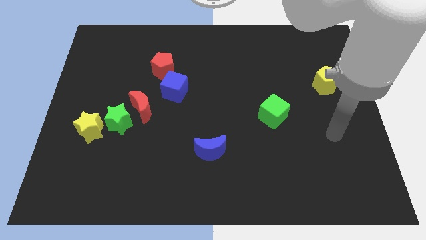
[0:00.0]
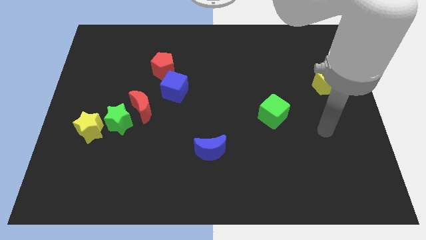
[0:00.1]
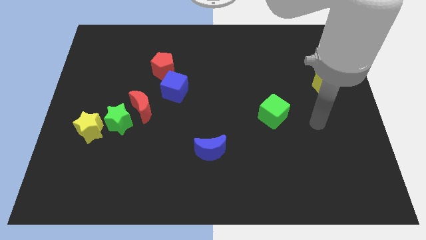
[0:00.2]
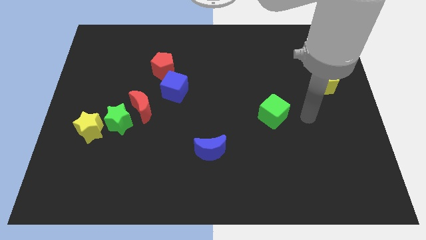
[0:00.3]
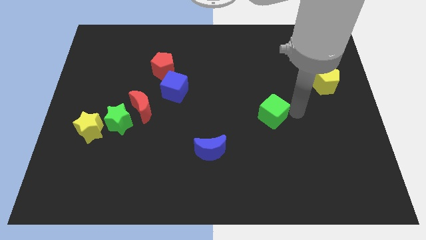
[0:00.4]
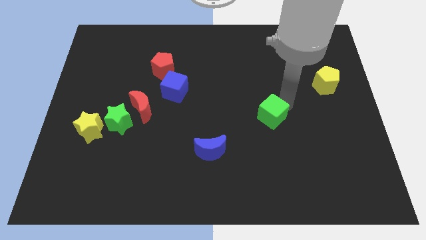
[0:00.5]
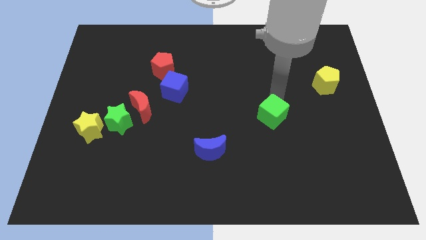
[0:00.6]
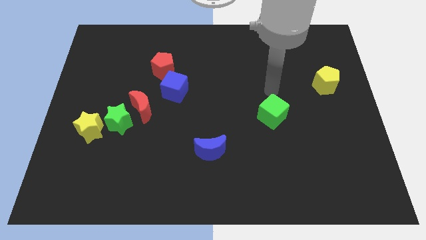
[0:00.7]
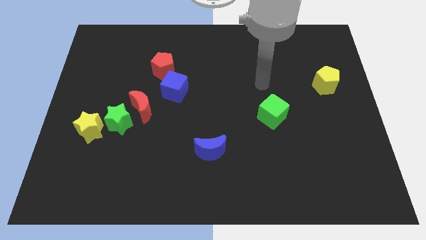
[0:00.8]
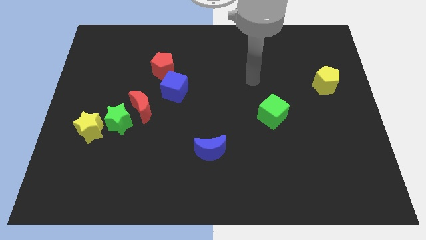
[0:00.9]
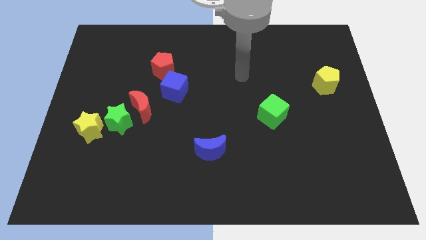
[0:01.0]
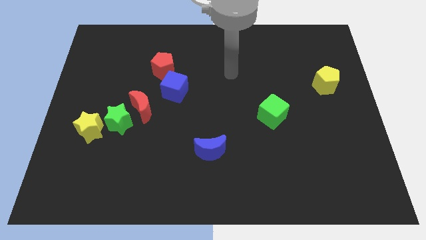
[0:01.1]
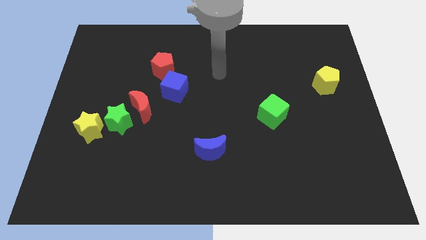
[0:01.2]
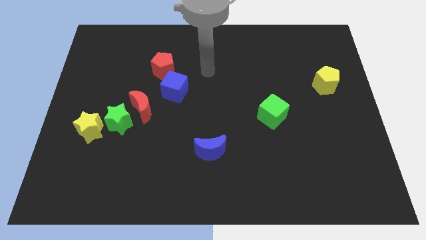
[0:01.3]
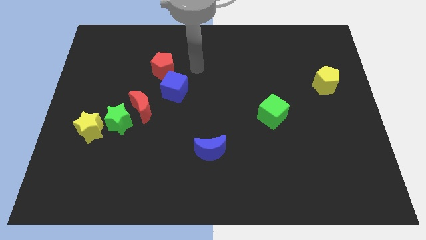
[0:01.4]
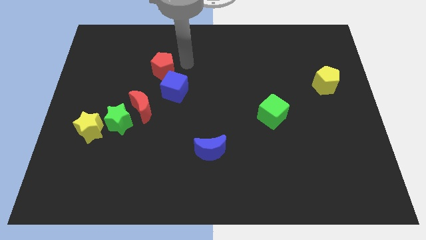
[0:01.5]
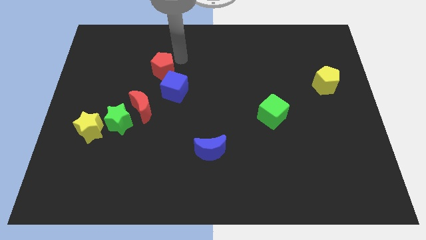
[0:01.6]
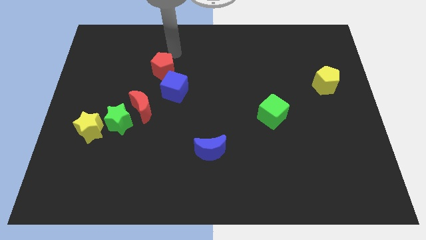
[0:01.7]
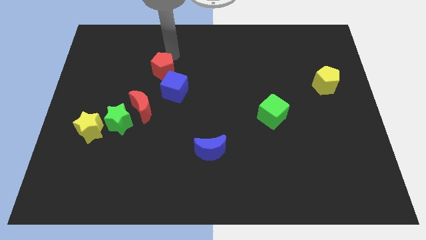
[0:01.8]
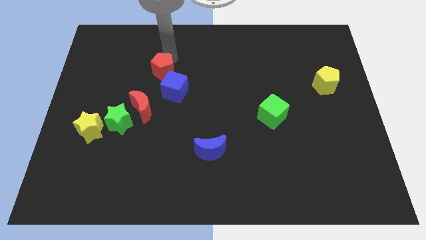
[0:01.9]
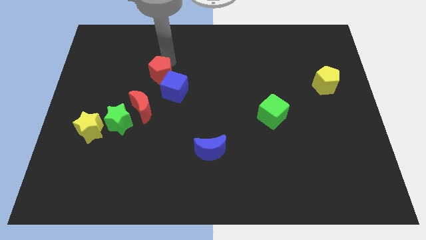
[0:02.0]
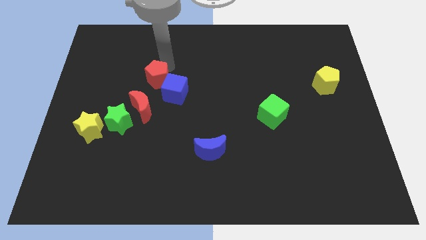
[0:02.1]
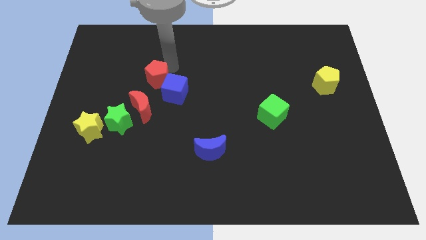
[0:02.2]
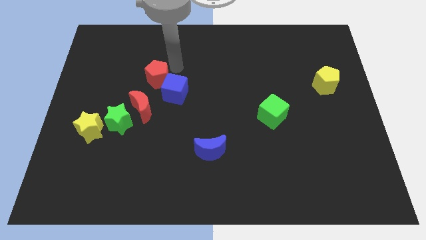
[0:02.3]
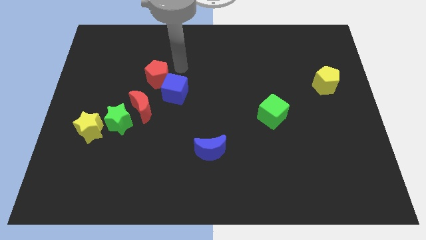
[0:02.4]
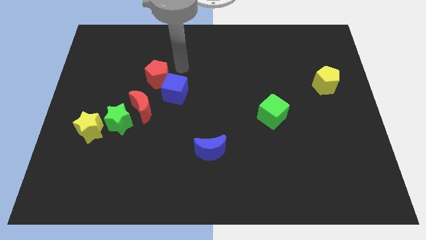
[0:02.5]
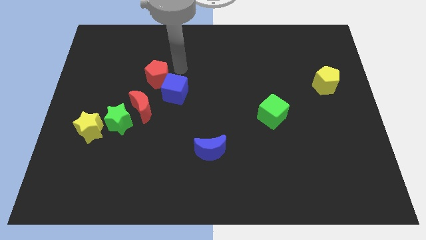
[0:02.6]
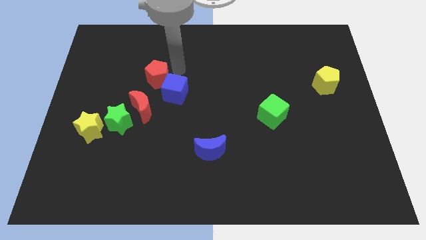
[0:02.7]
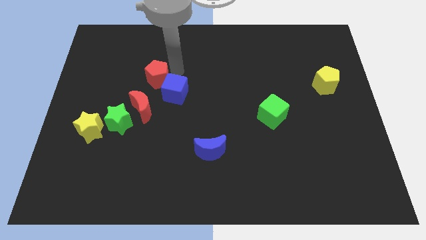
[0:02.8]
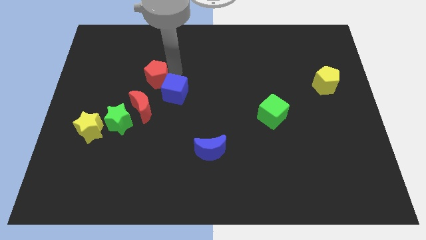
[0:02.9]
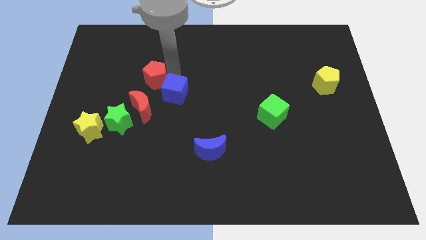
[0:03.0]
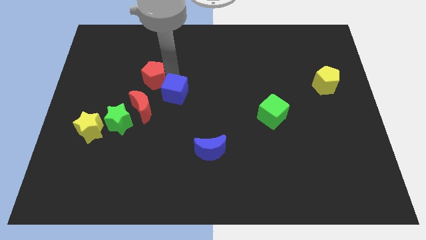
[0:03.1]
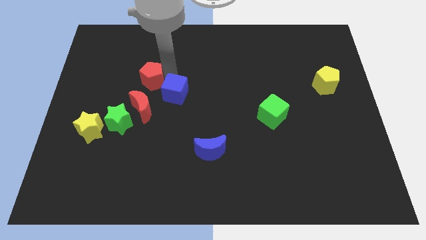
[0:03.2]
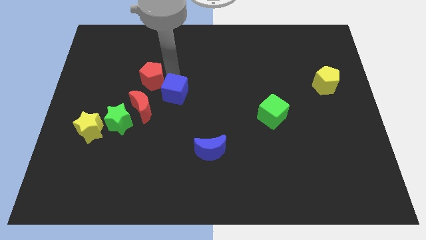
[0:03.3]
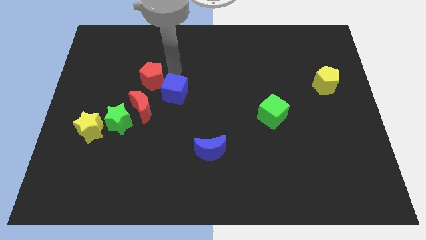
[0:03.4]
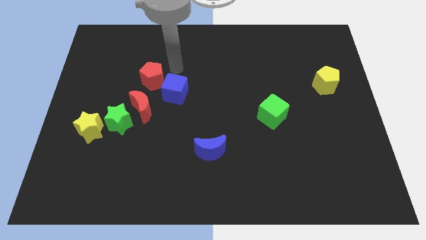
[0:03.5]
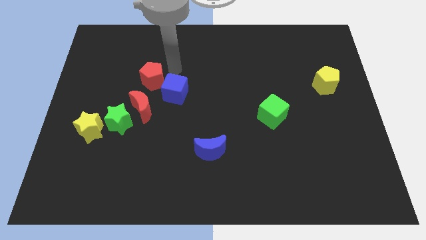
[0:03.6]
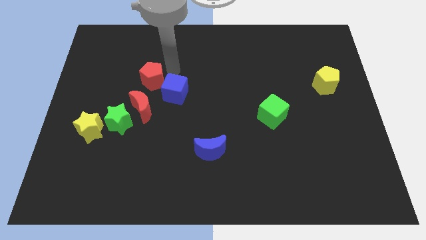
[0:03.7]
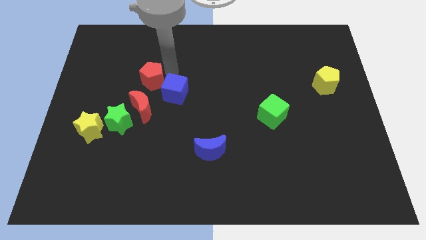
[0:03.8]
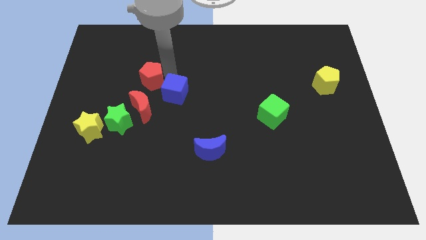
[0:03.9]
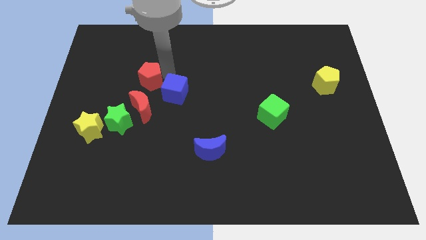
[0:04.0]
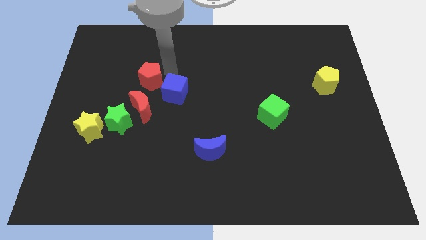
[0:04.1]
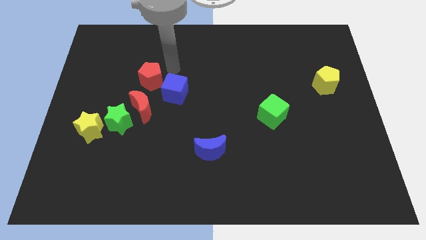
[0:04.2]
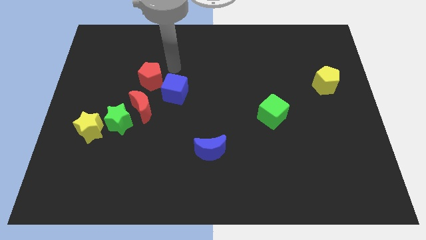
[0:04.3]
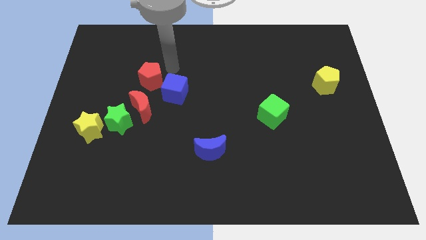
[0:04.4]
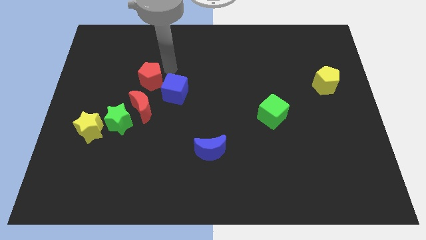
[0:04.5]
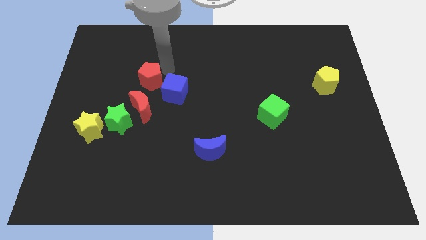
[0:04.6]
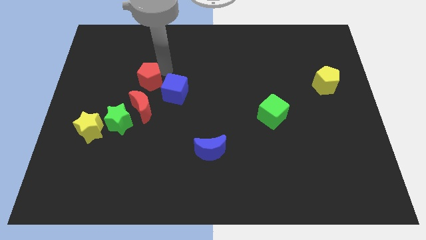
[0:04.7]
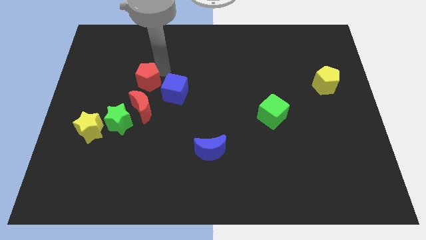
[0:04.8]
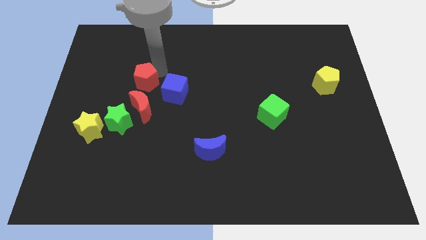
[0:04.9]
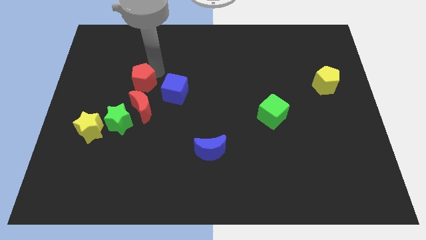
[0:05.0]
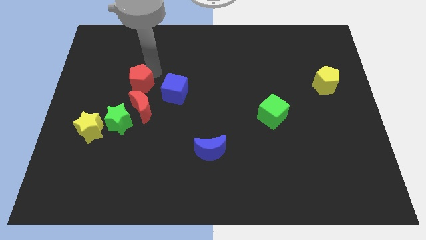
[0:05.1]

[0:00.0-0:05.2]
move the red pentagon a little down and then left

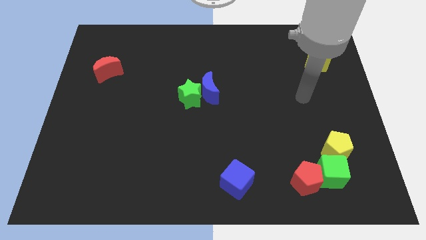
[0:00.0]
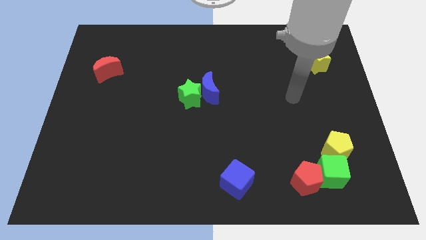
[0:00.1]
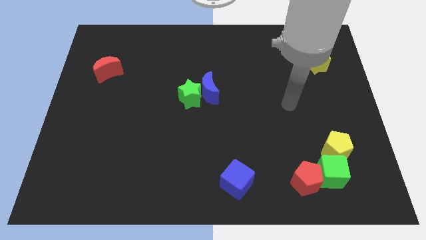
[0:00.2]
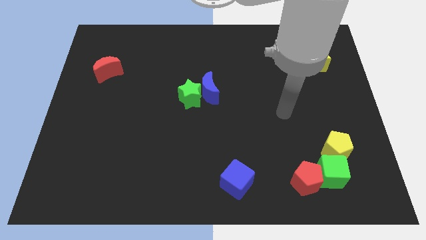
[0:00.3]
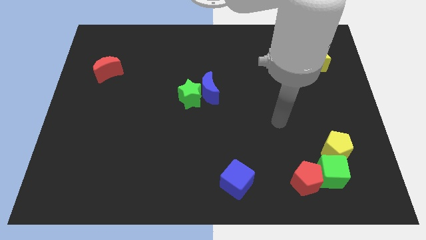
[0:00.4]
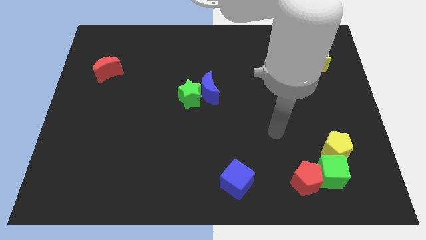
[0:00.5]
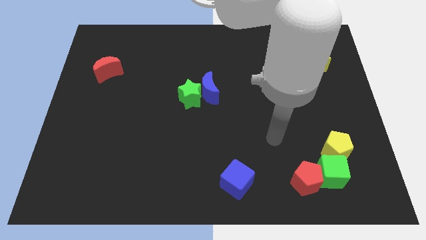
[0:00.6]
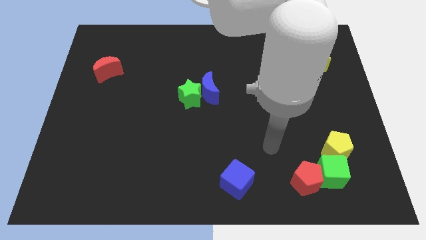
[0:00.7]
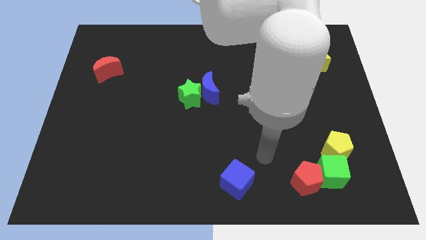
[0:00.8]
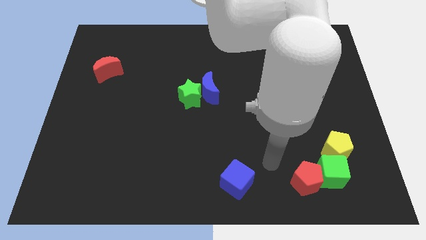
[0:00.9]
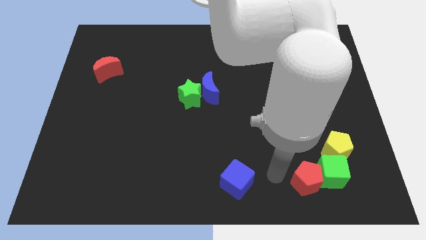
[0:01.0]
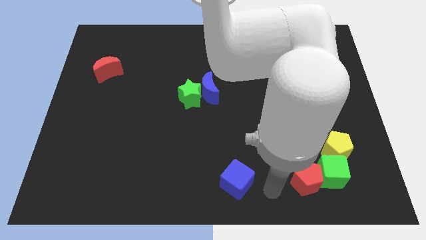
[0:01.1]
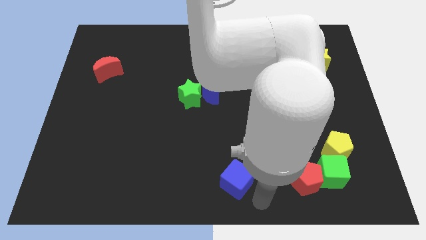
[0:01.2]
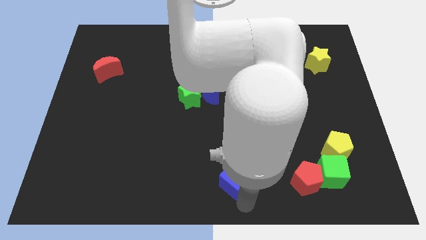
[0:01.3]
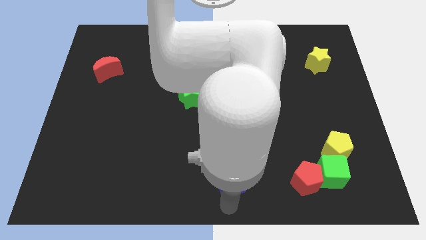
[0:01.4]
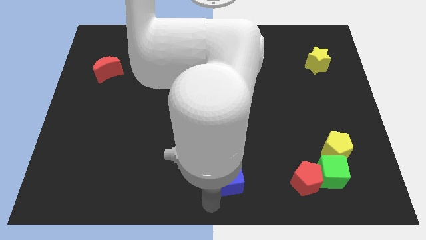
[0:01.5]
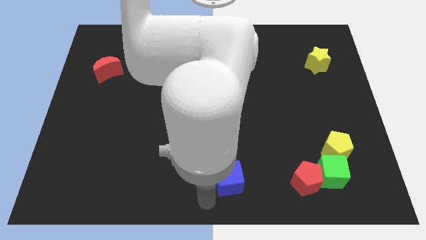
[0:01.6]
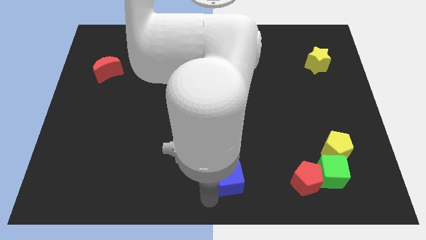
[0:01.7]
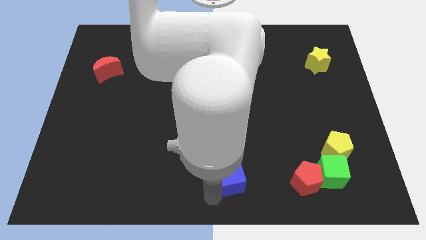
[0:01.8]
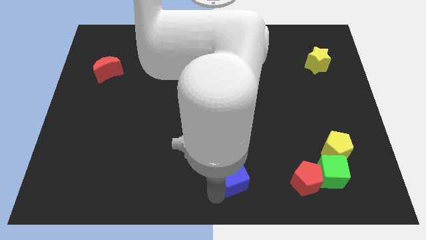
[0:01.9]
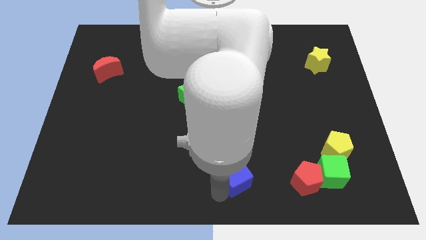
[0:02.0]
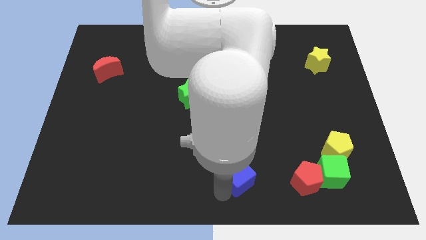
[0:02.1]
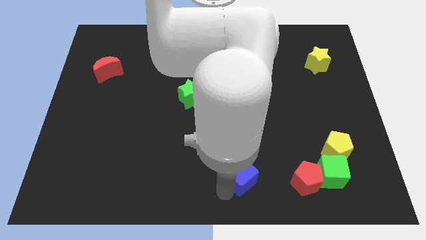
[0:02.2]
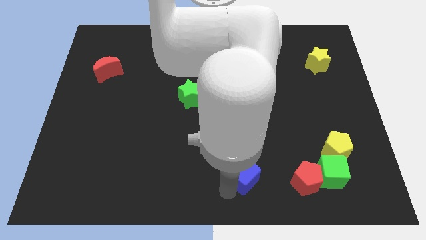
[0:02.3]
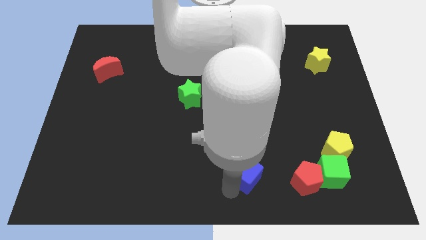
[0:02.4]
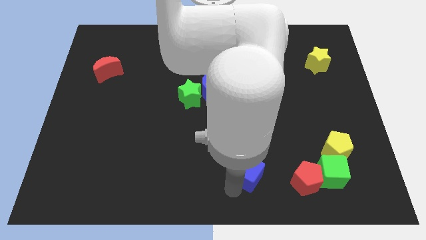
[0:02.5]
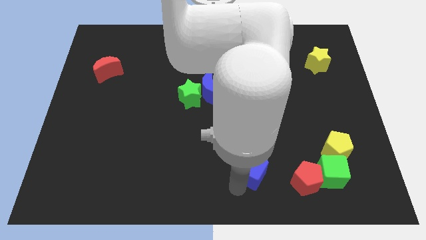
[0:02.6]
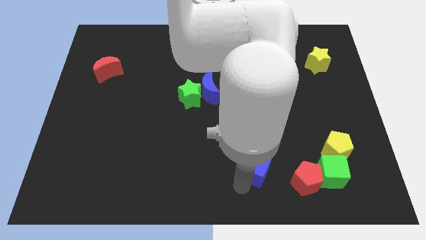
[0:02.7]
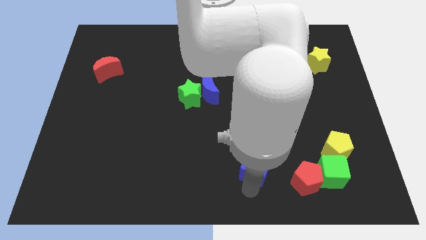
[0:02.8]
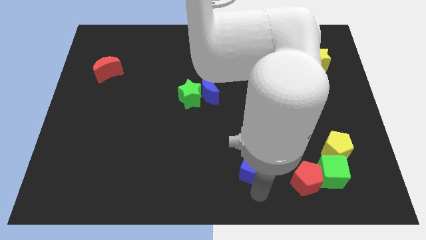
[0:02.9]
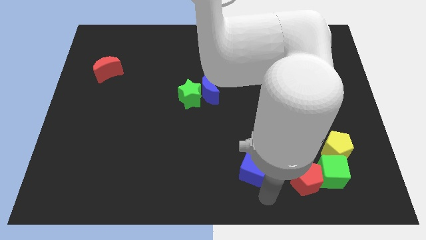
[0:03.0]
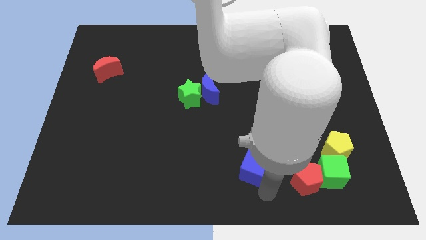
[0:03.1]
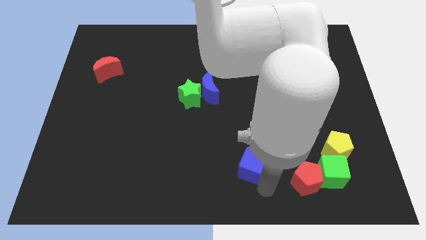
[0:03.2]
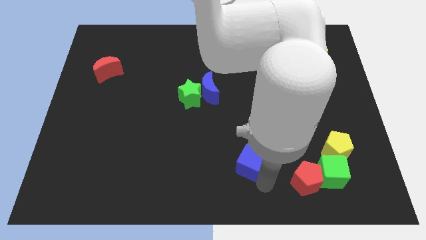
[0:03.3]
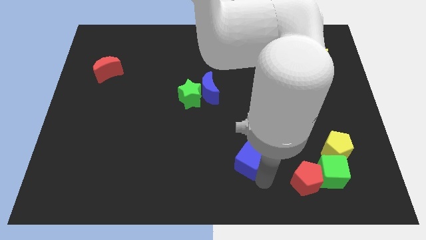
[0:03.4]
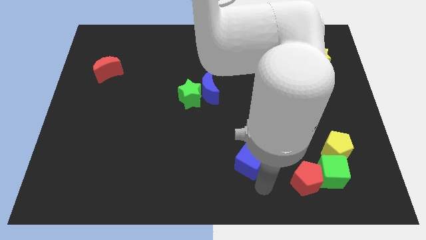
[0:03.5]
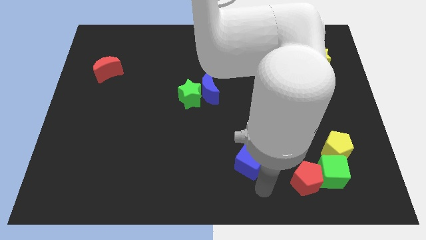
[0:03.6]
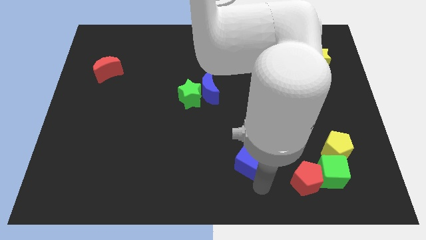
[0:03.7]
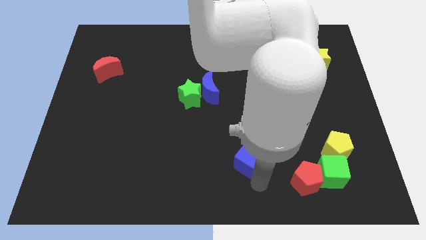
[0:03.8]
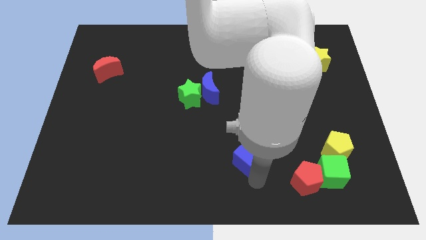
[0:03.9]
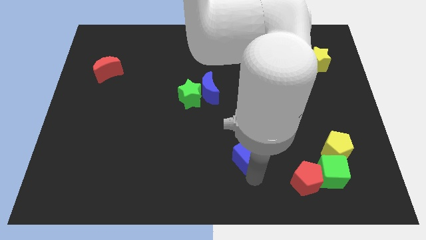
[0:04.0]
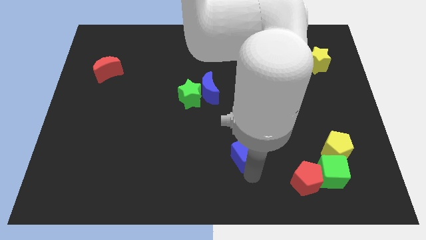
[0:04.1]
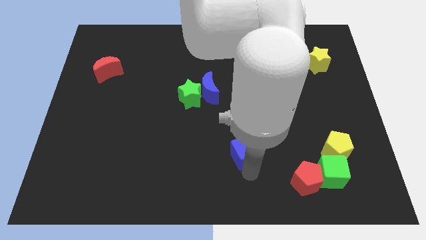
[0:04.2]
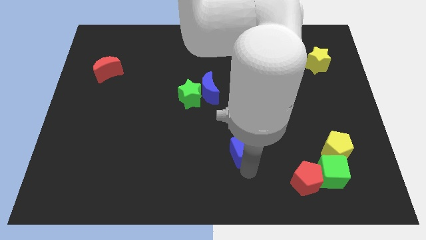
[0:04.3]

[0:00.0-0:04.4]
push the blue cube a bit upwards
